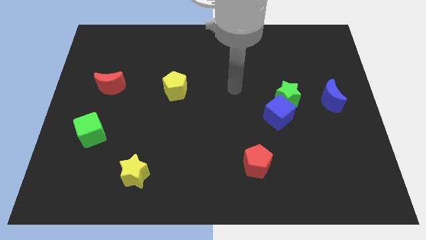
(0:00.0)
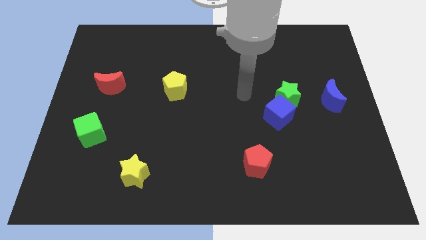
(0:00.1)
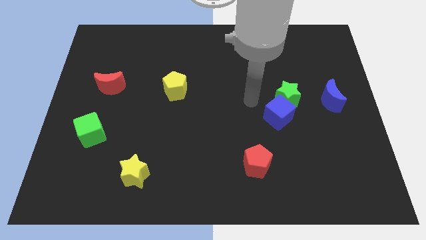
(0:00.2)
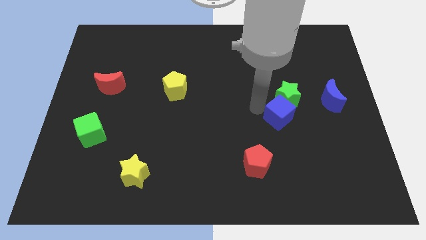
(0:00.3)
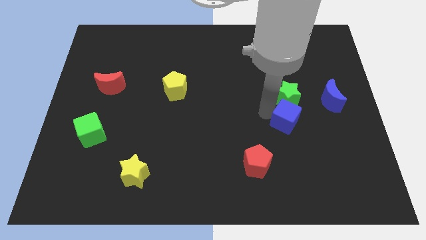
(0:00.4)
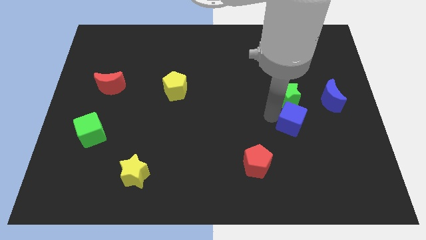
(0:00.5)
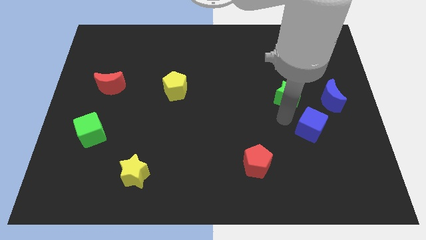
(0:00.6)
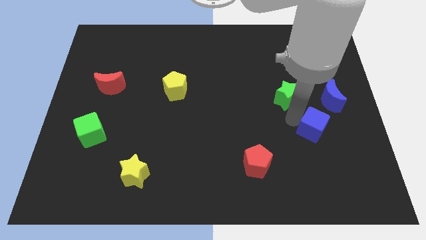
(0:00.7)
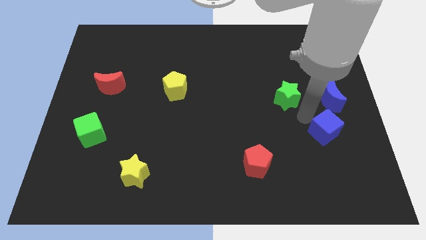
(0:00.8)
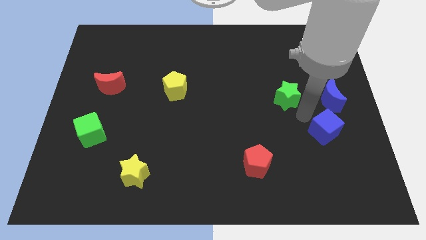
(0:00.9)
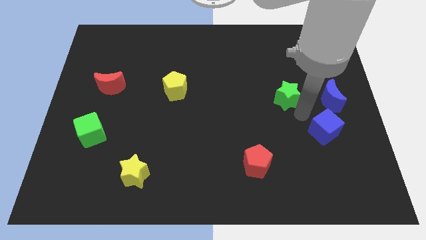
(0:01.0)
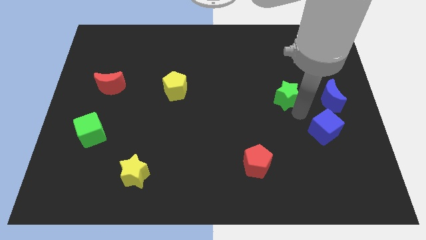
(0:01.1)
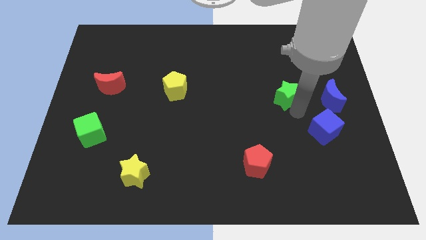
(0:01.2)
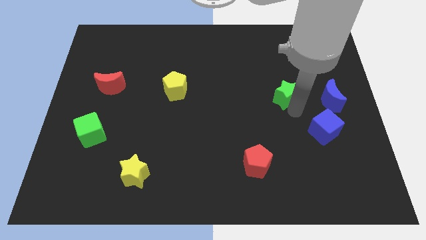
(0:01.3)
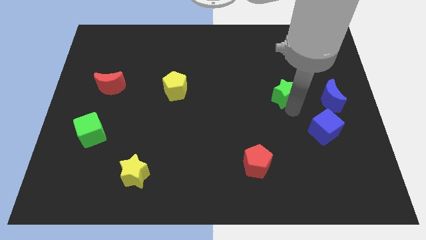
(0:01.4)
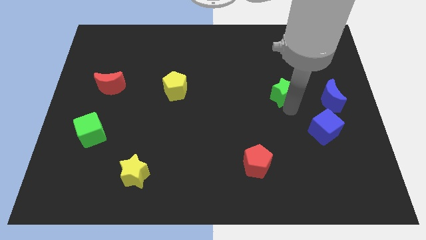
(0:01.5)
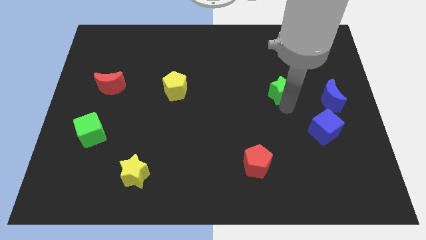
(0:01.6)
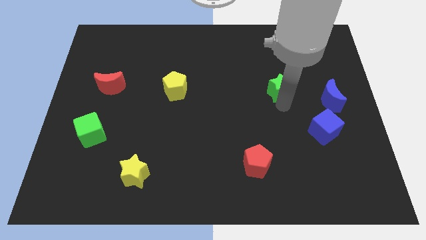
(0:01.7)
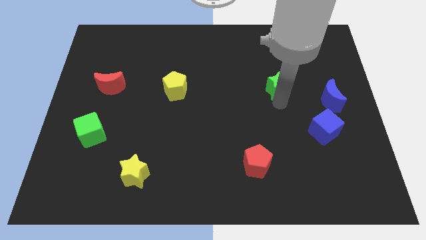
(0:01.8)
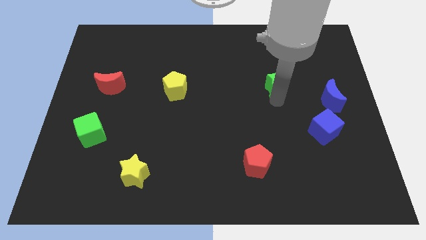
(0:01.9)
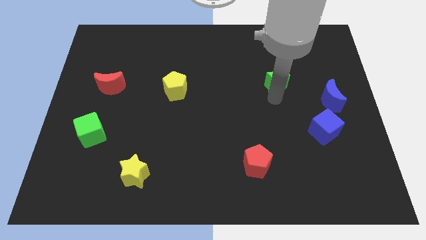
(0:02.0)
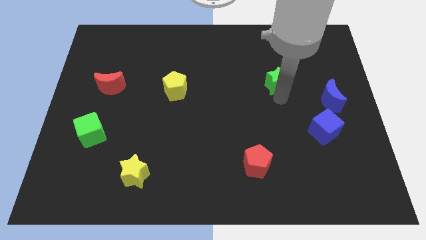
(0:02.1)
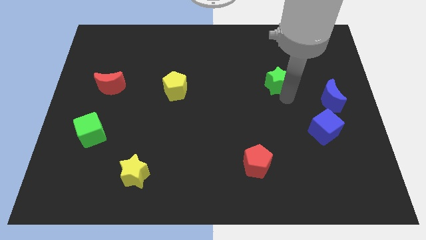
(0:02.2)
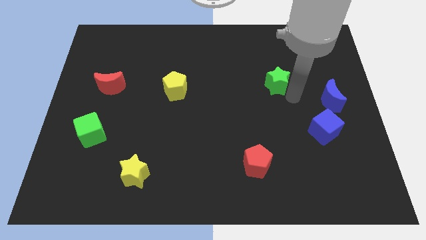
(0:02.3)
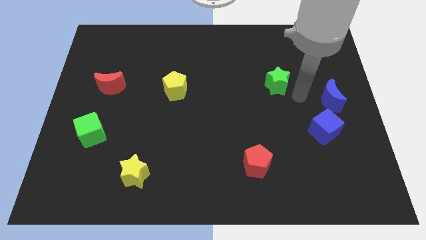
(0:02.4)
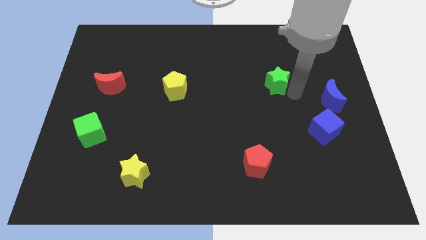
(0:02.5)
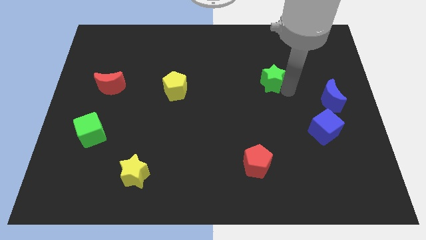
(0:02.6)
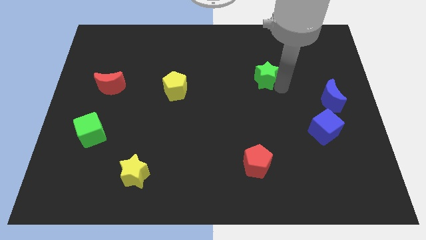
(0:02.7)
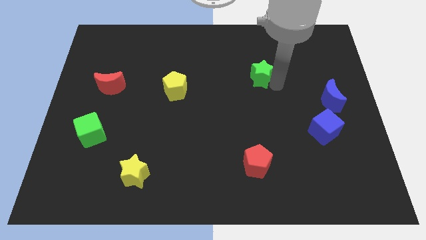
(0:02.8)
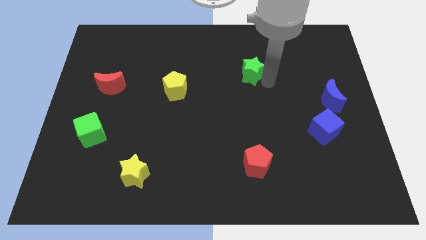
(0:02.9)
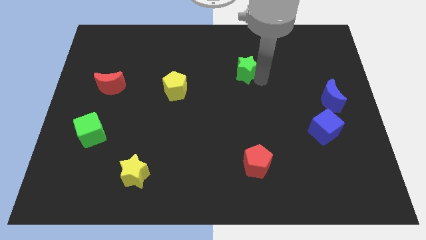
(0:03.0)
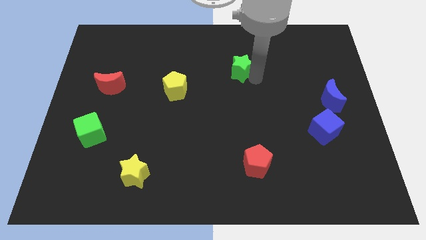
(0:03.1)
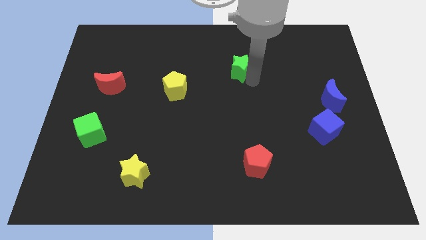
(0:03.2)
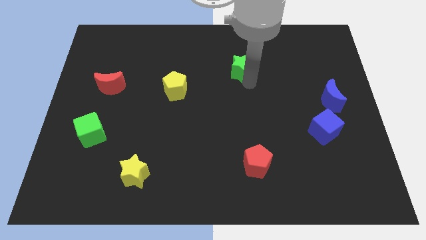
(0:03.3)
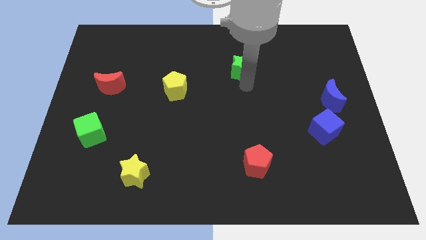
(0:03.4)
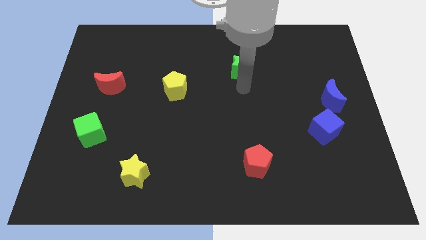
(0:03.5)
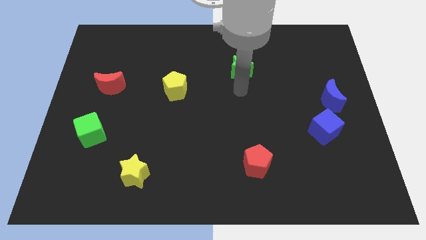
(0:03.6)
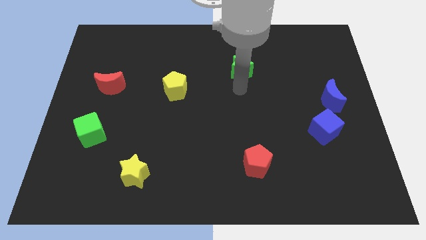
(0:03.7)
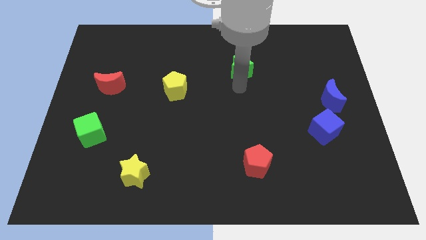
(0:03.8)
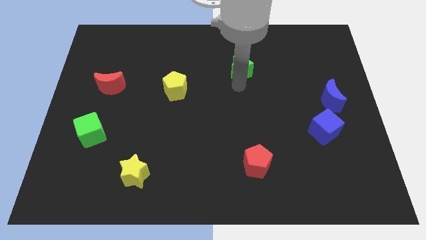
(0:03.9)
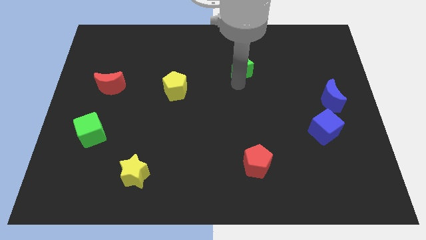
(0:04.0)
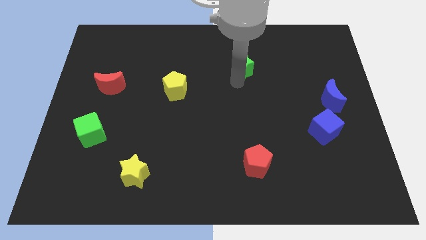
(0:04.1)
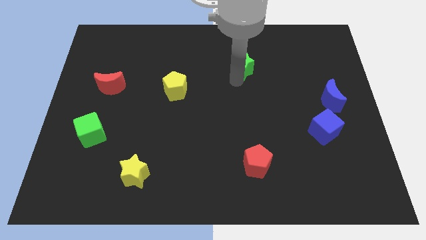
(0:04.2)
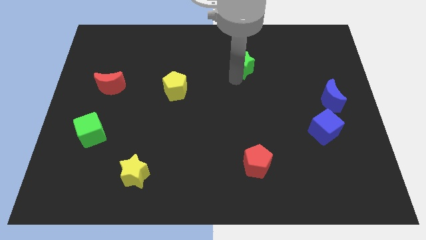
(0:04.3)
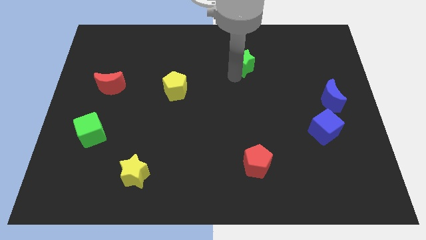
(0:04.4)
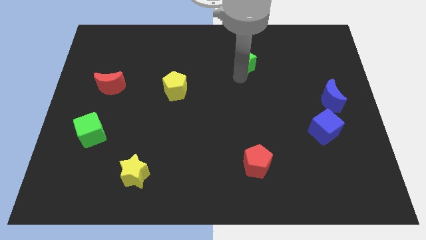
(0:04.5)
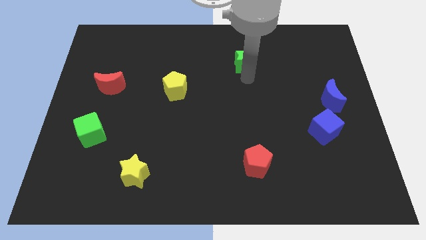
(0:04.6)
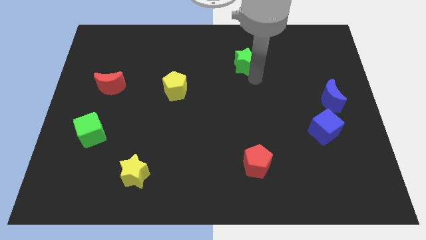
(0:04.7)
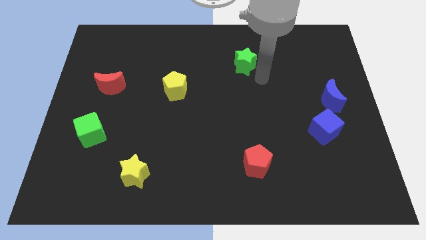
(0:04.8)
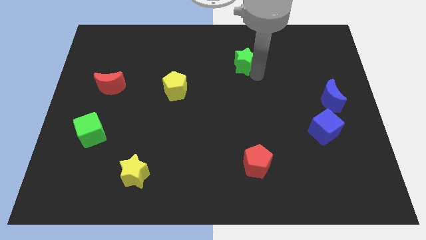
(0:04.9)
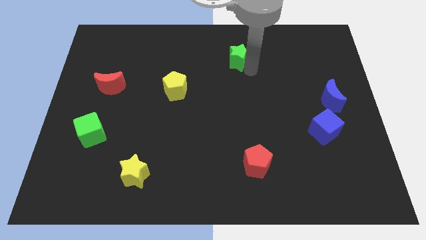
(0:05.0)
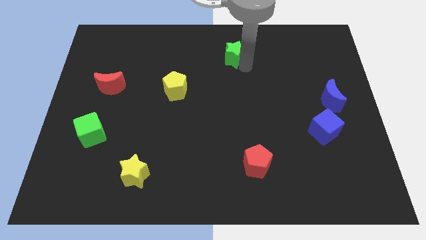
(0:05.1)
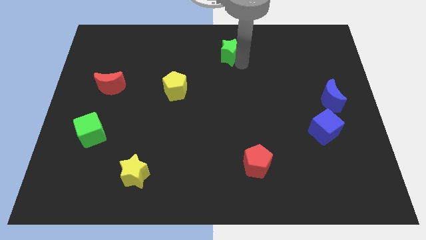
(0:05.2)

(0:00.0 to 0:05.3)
push the green star to the towards your base
